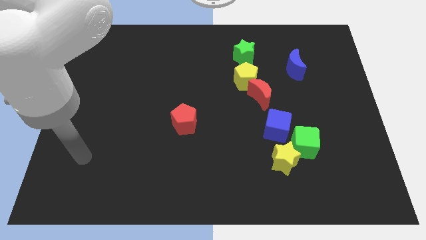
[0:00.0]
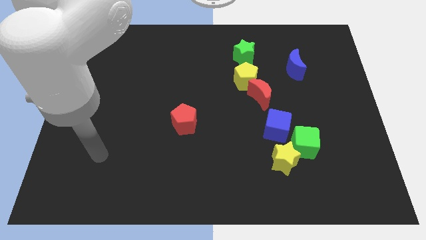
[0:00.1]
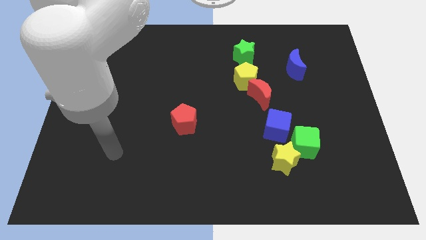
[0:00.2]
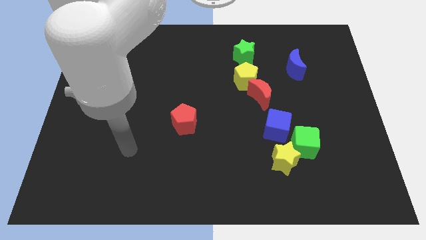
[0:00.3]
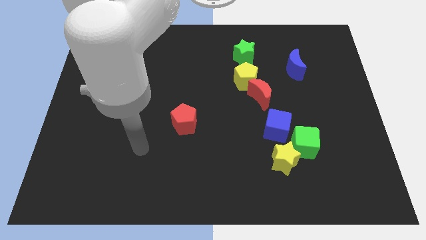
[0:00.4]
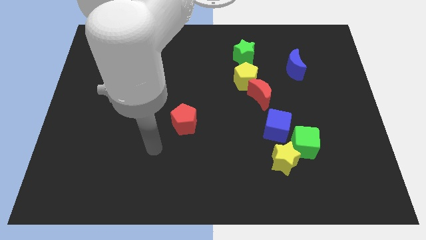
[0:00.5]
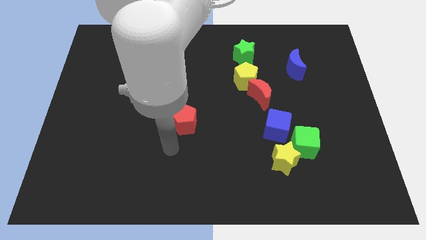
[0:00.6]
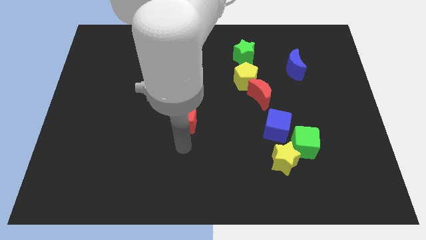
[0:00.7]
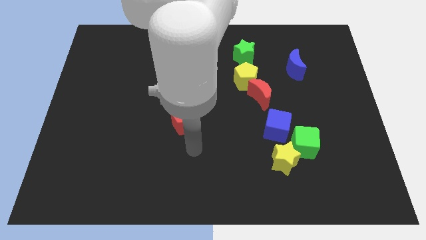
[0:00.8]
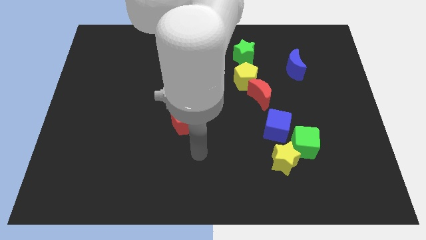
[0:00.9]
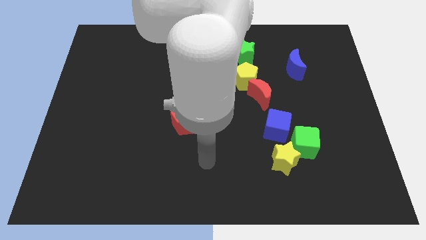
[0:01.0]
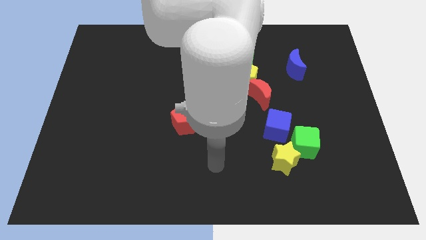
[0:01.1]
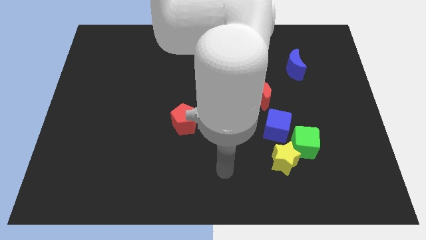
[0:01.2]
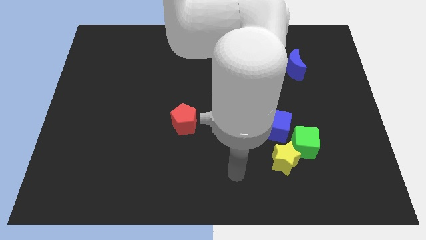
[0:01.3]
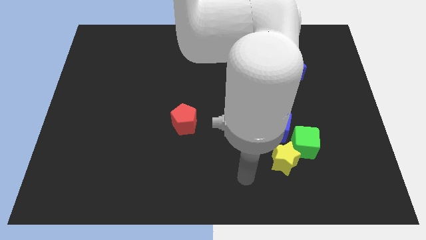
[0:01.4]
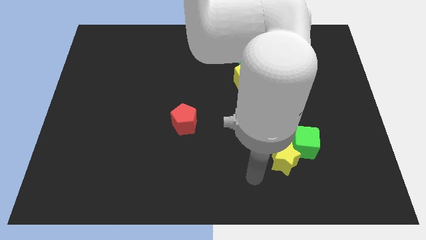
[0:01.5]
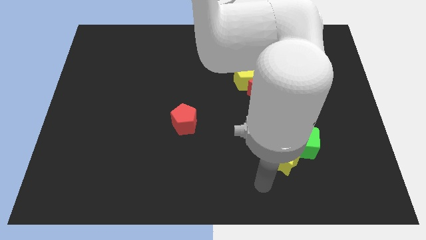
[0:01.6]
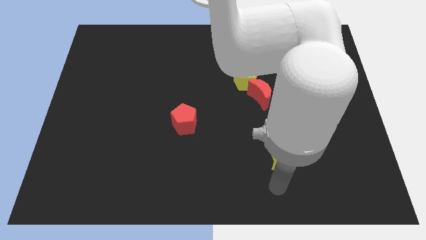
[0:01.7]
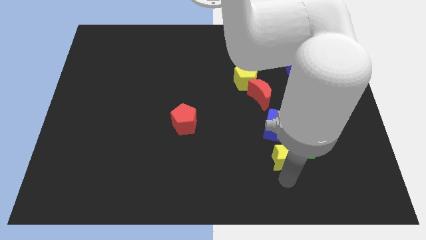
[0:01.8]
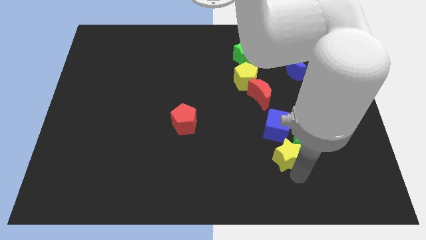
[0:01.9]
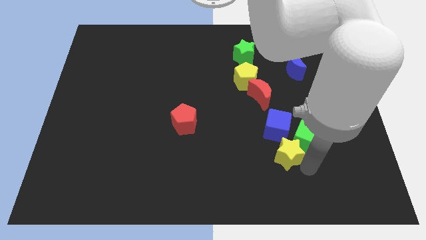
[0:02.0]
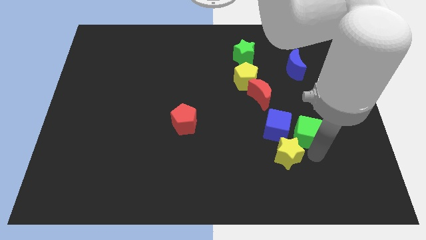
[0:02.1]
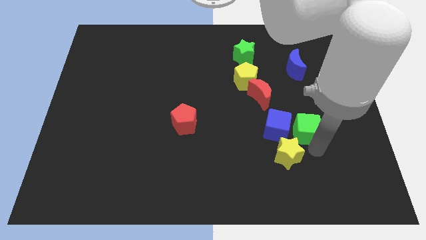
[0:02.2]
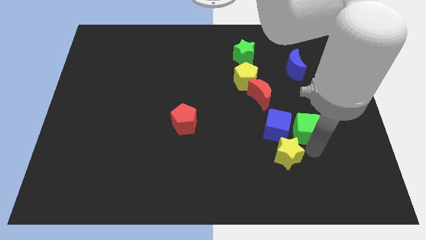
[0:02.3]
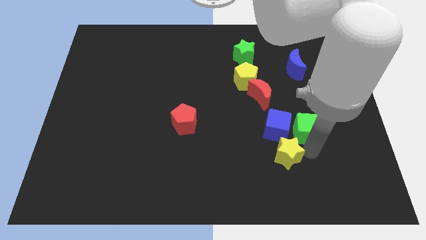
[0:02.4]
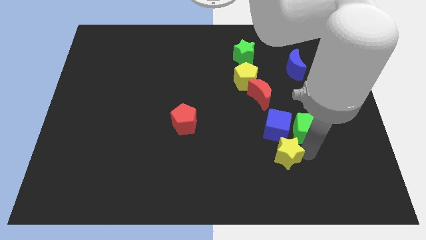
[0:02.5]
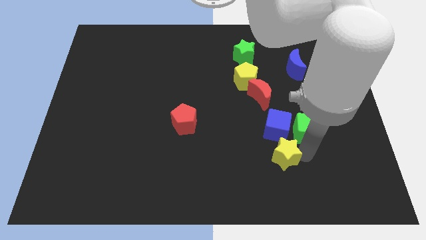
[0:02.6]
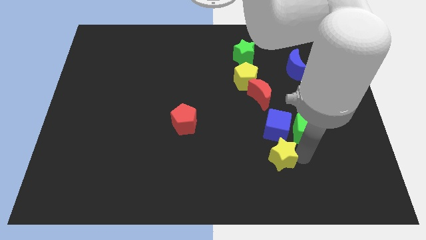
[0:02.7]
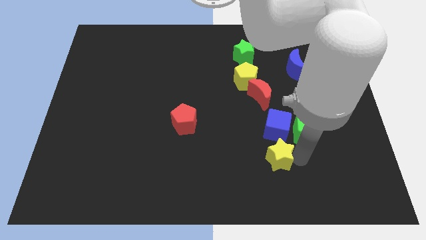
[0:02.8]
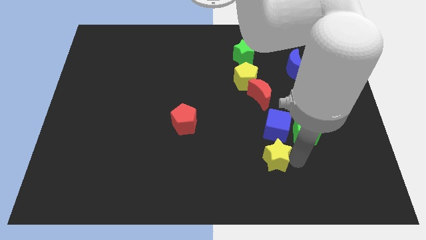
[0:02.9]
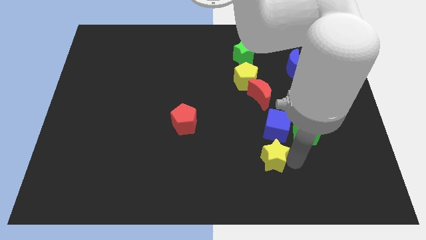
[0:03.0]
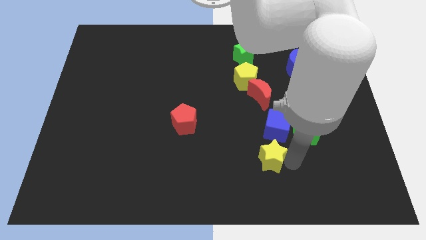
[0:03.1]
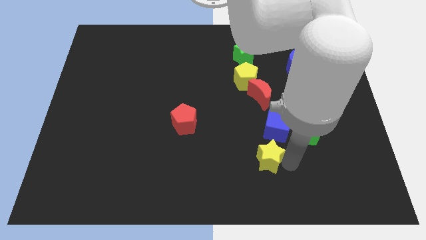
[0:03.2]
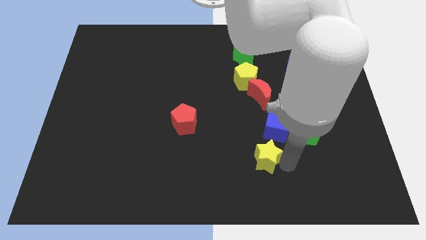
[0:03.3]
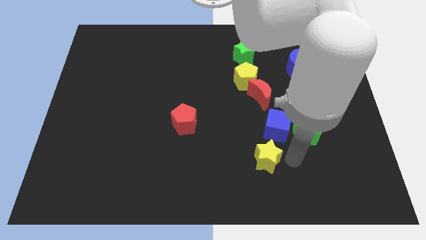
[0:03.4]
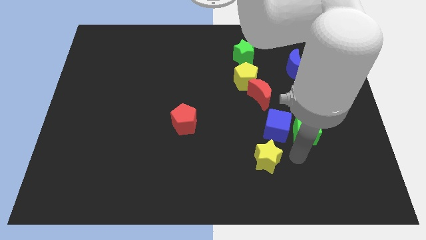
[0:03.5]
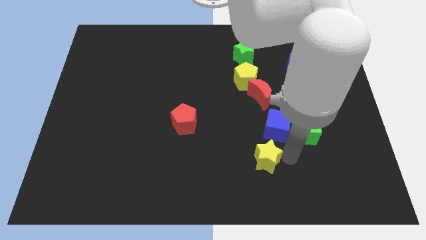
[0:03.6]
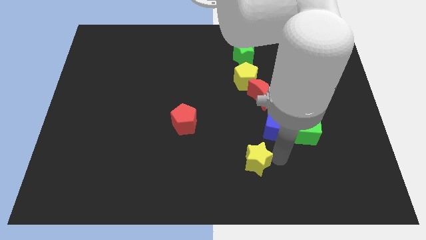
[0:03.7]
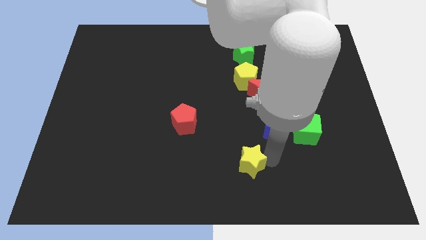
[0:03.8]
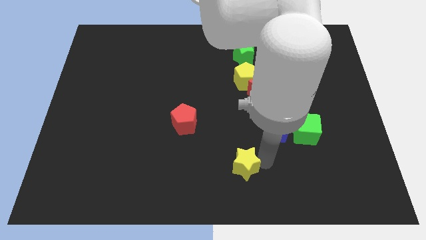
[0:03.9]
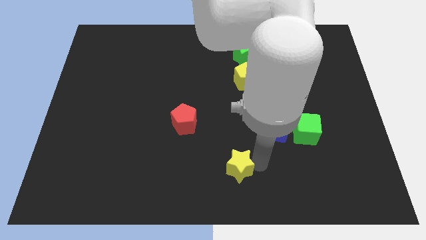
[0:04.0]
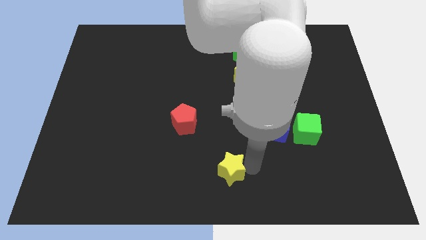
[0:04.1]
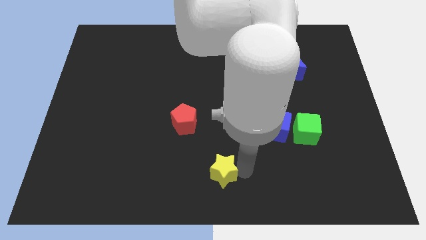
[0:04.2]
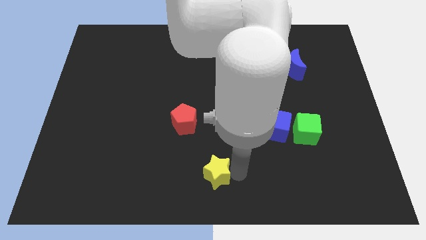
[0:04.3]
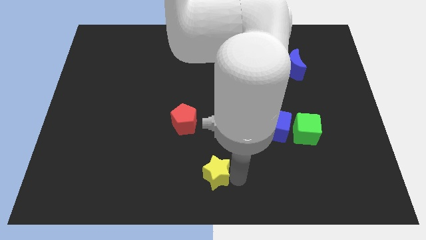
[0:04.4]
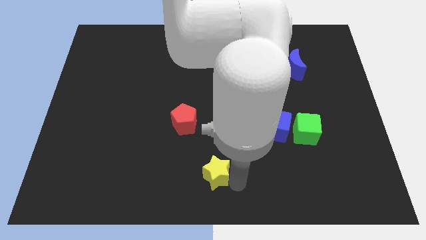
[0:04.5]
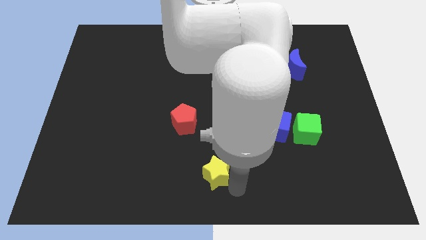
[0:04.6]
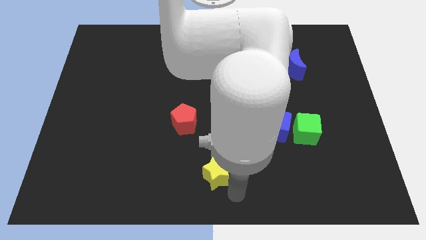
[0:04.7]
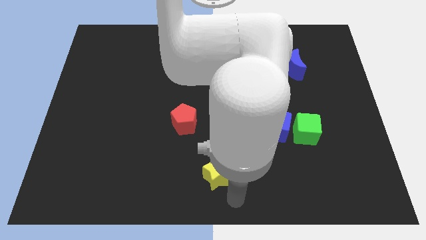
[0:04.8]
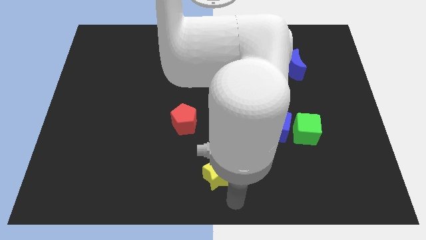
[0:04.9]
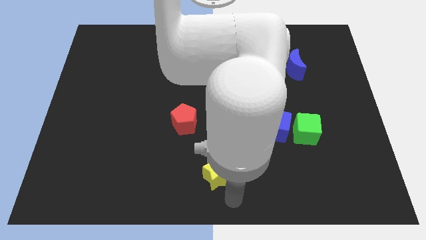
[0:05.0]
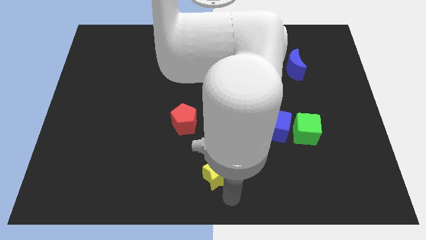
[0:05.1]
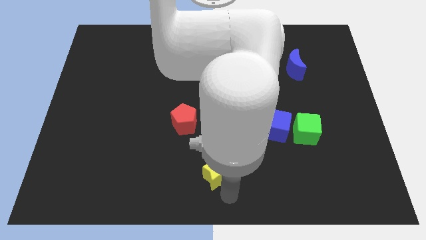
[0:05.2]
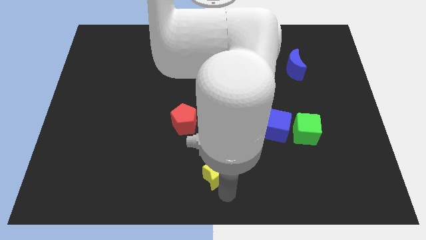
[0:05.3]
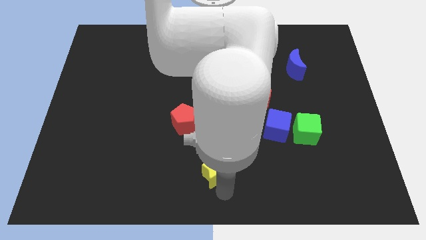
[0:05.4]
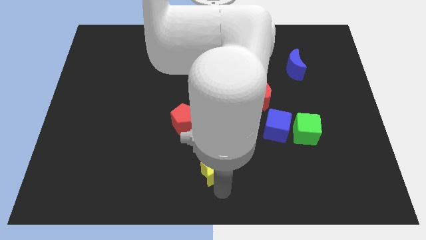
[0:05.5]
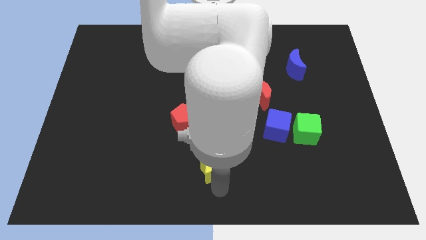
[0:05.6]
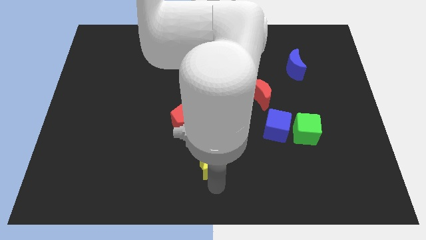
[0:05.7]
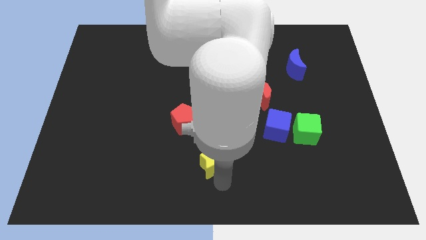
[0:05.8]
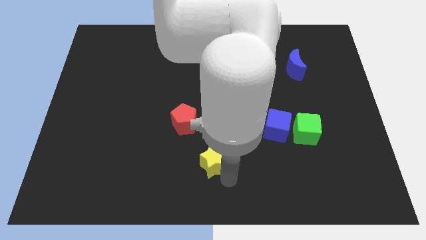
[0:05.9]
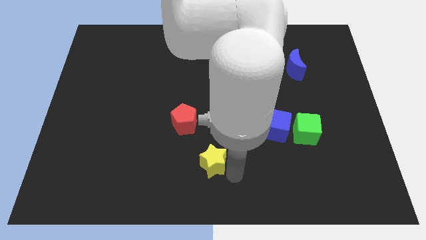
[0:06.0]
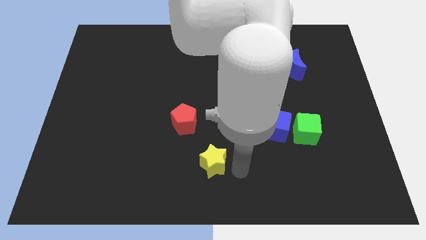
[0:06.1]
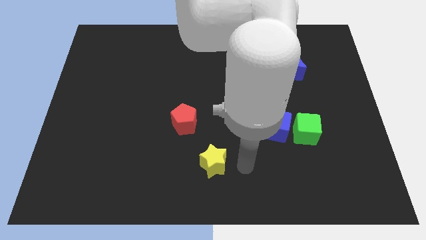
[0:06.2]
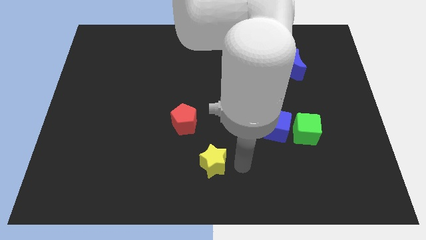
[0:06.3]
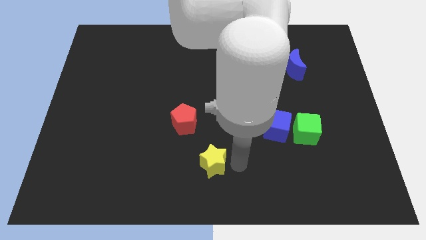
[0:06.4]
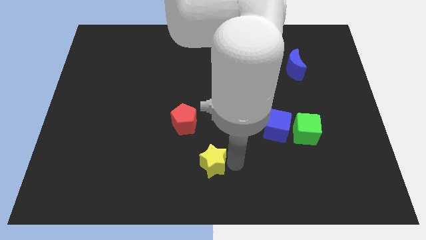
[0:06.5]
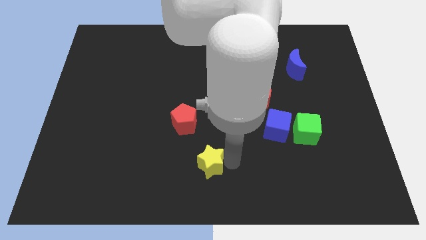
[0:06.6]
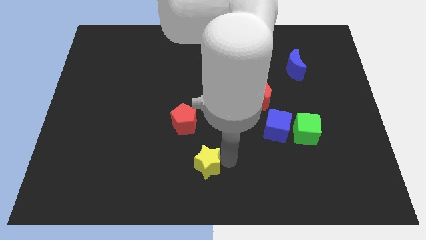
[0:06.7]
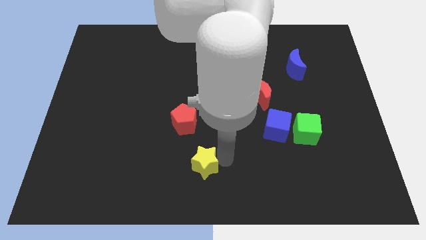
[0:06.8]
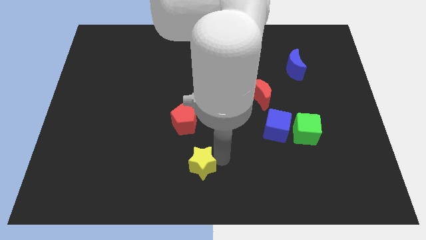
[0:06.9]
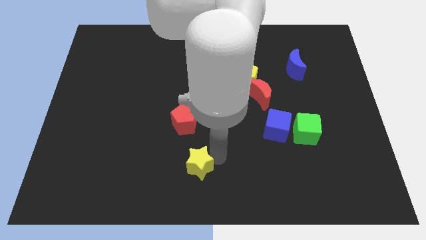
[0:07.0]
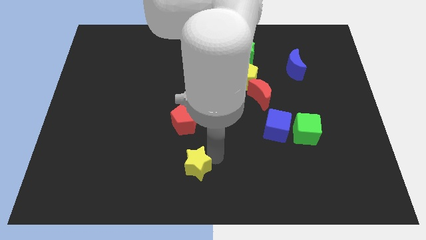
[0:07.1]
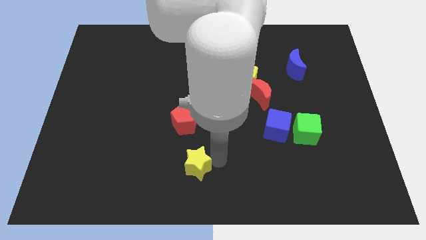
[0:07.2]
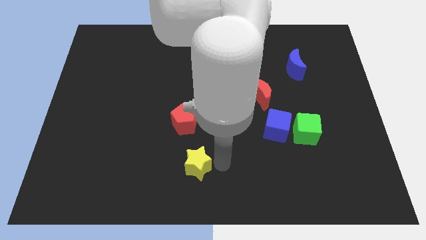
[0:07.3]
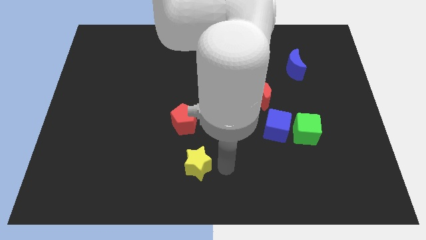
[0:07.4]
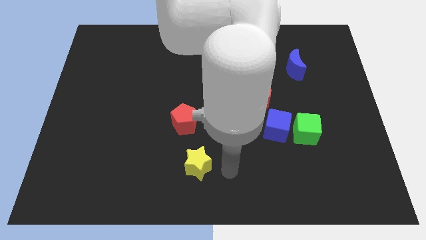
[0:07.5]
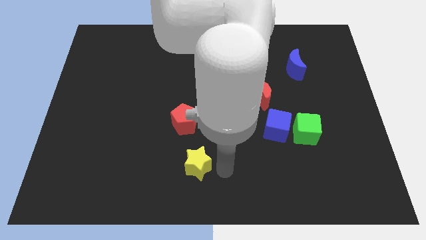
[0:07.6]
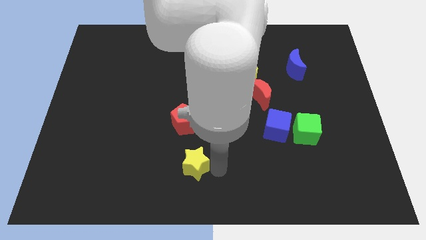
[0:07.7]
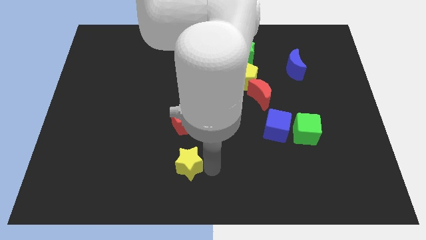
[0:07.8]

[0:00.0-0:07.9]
push the yellow star left
